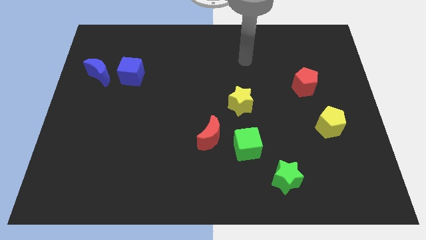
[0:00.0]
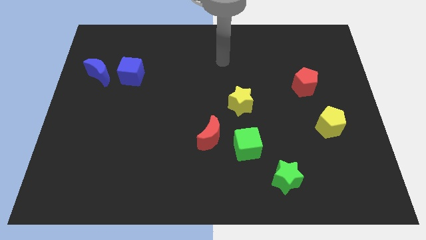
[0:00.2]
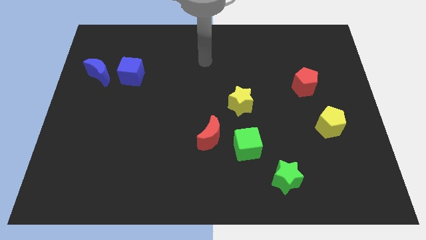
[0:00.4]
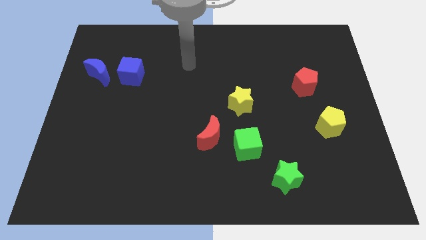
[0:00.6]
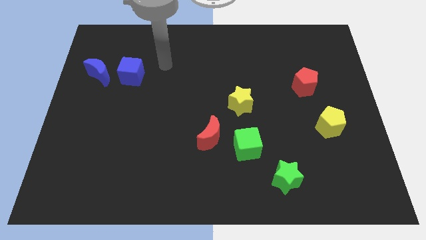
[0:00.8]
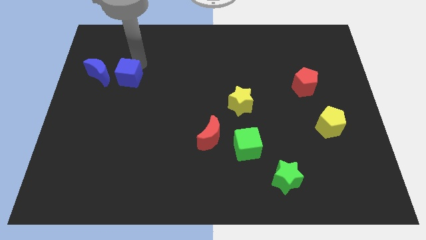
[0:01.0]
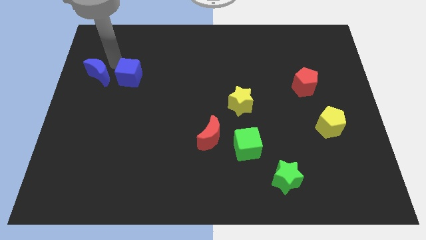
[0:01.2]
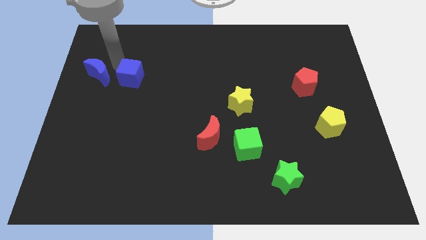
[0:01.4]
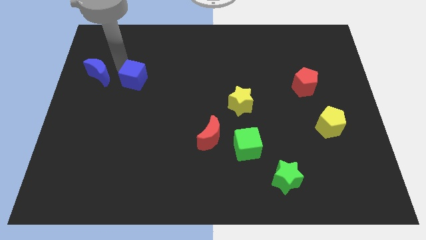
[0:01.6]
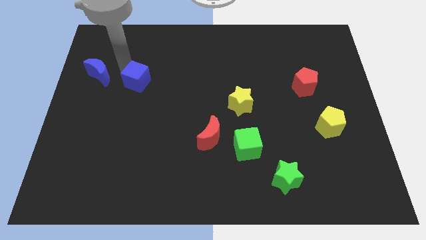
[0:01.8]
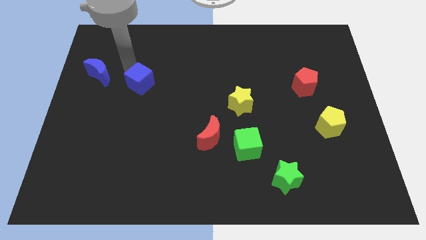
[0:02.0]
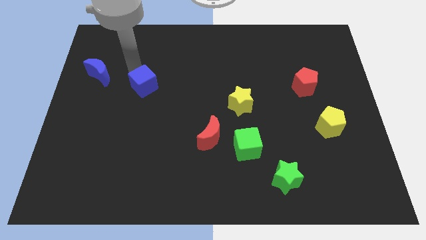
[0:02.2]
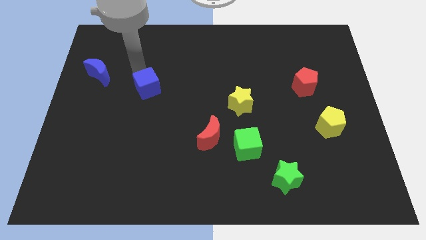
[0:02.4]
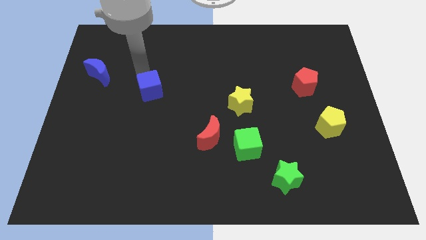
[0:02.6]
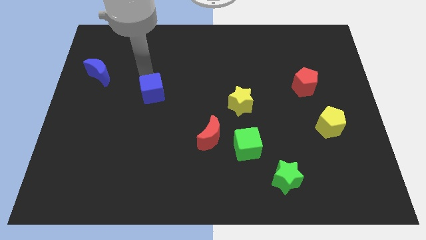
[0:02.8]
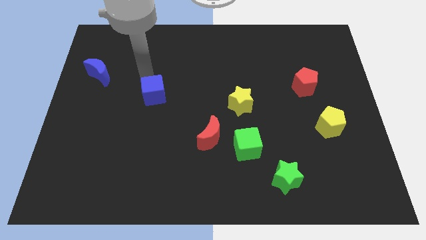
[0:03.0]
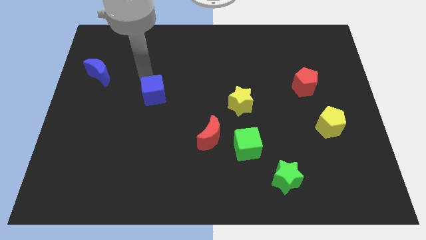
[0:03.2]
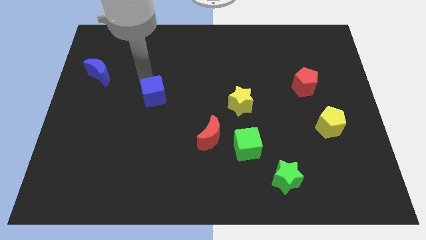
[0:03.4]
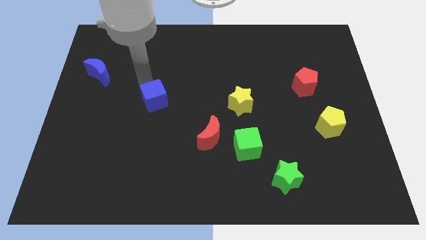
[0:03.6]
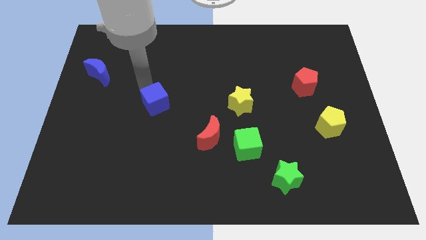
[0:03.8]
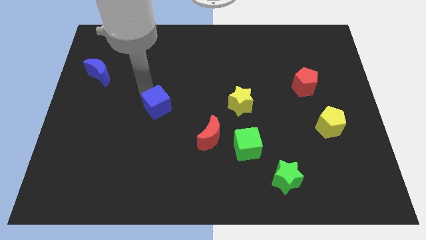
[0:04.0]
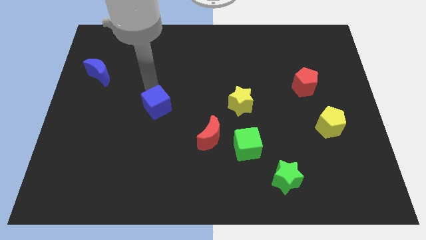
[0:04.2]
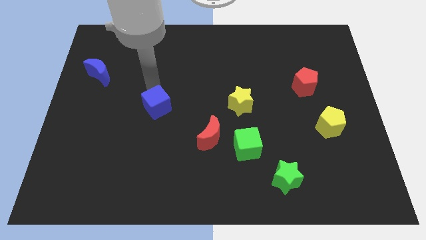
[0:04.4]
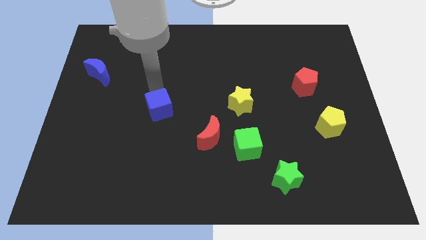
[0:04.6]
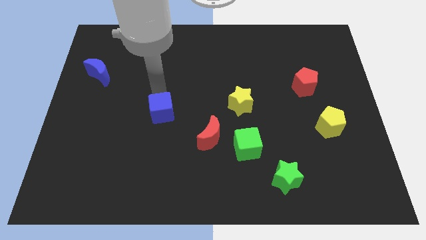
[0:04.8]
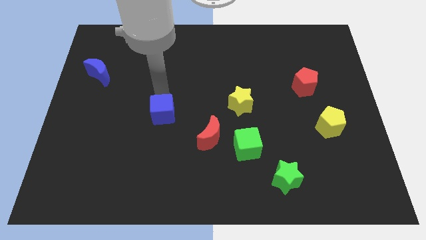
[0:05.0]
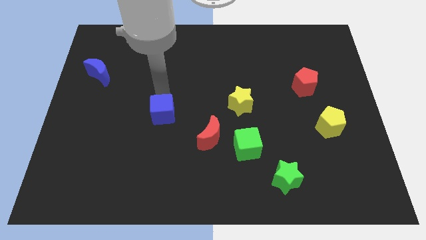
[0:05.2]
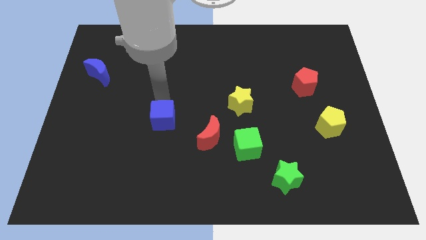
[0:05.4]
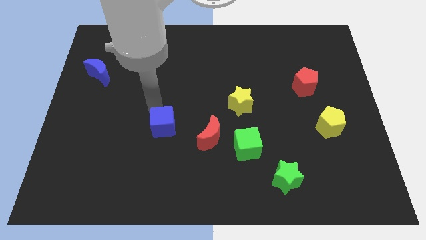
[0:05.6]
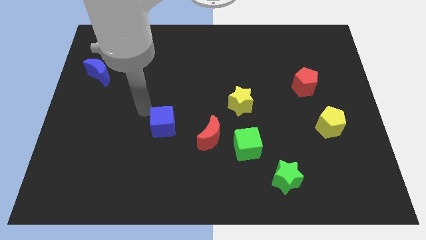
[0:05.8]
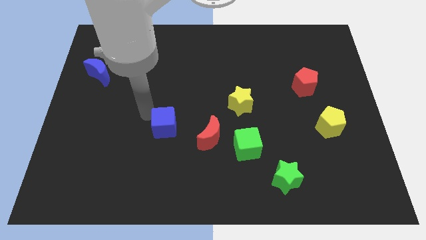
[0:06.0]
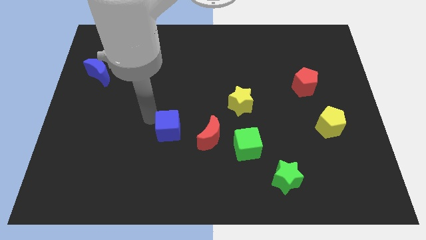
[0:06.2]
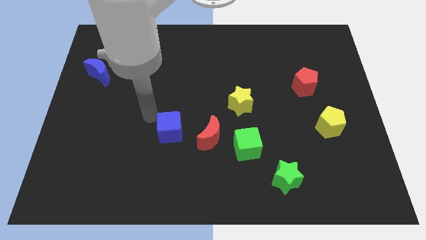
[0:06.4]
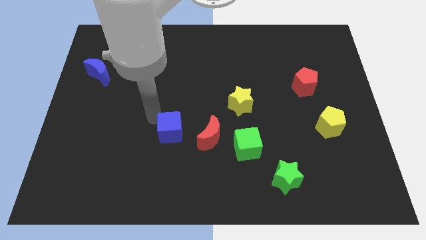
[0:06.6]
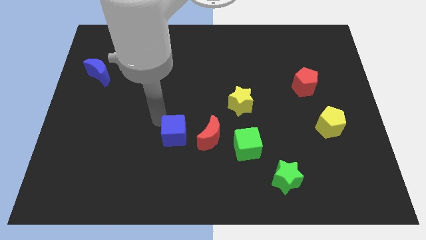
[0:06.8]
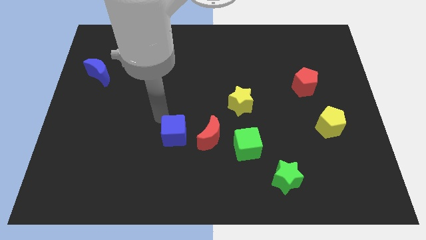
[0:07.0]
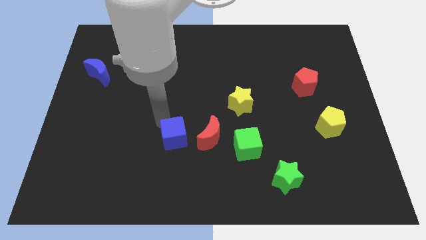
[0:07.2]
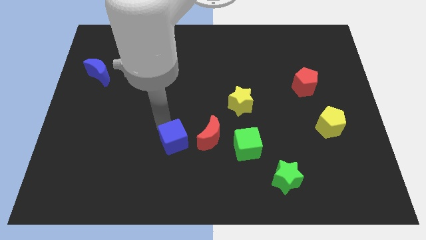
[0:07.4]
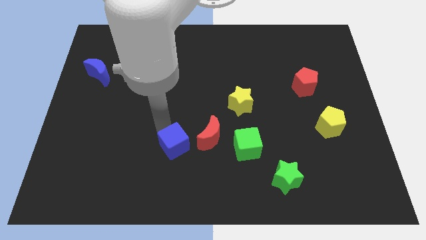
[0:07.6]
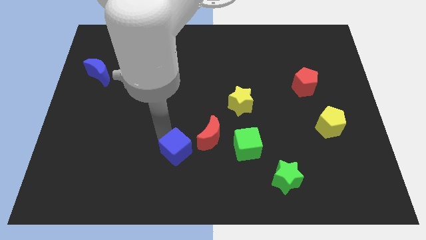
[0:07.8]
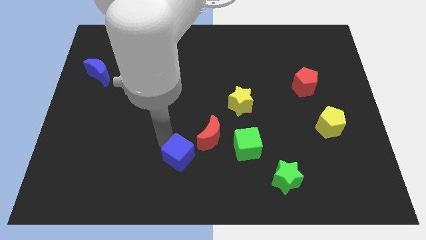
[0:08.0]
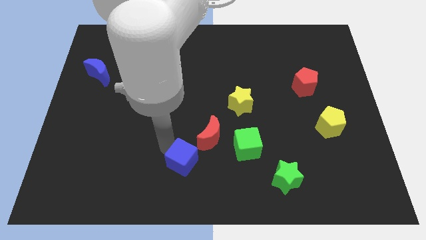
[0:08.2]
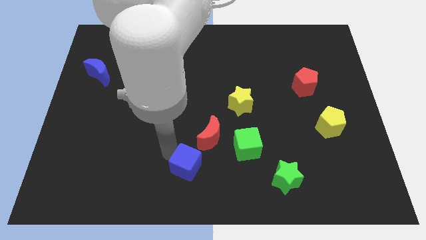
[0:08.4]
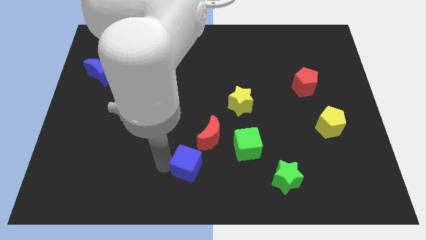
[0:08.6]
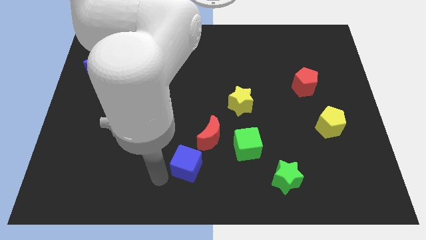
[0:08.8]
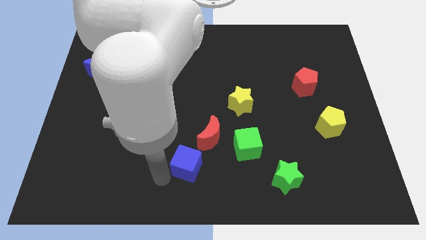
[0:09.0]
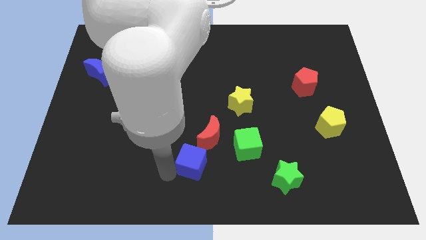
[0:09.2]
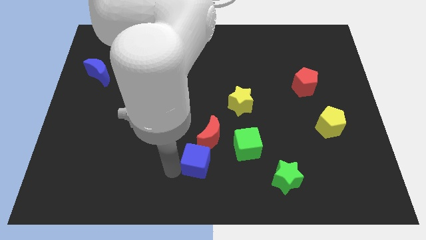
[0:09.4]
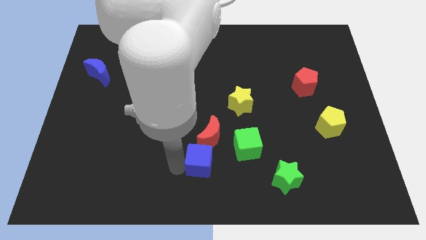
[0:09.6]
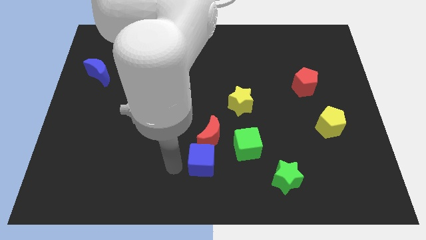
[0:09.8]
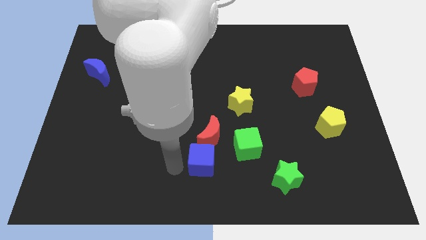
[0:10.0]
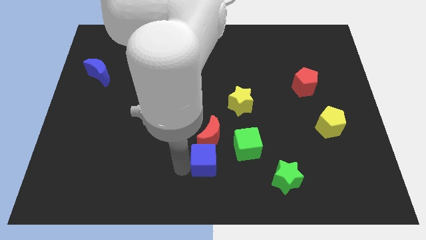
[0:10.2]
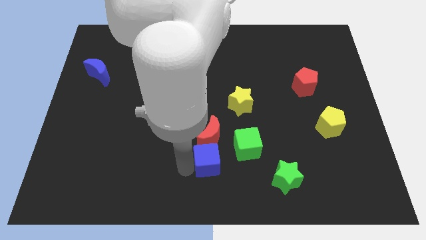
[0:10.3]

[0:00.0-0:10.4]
push the blue cube to the bottom right of the red moon

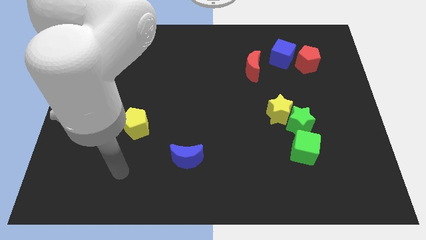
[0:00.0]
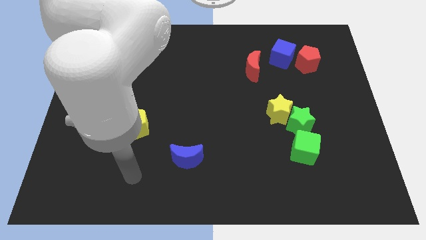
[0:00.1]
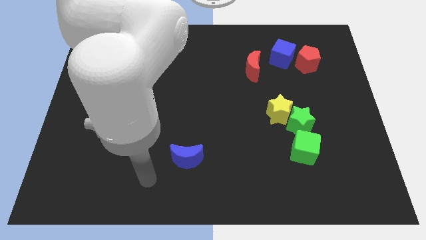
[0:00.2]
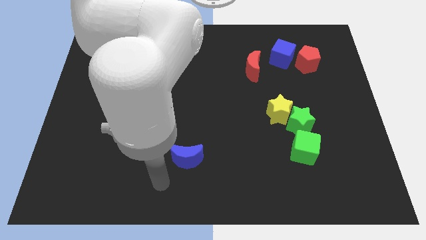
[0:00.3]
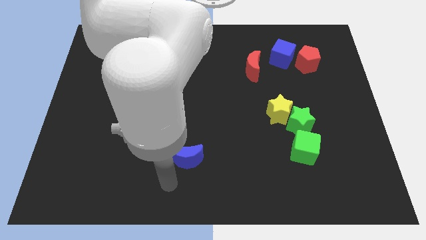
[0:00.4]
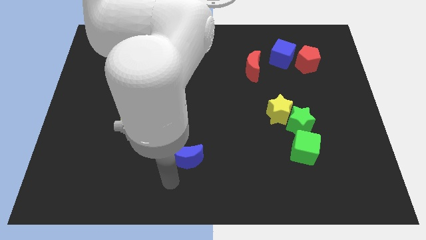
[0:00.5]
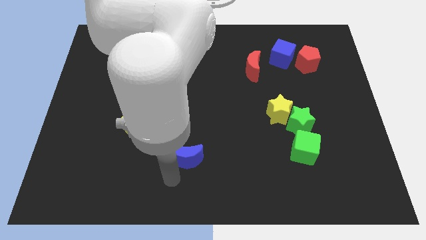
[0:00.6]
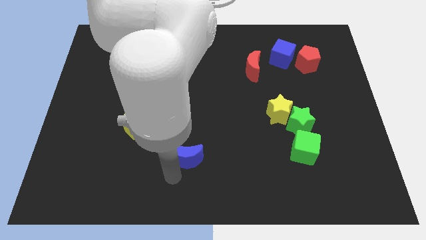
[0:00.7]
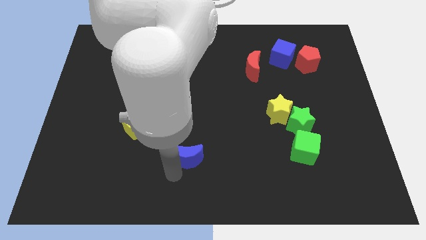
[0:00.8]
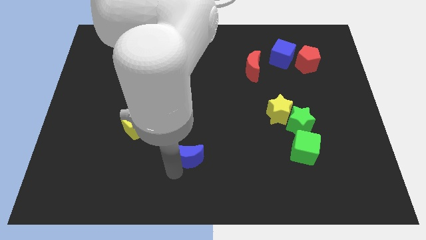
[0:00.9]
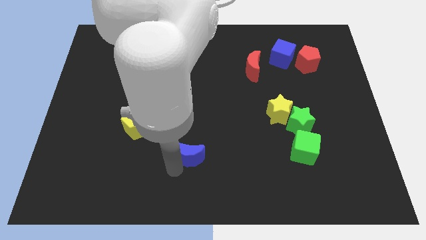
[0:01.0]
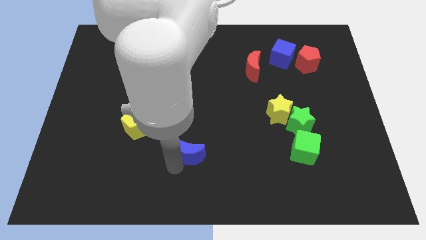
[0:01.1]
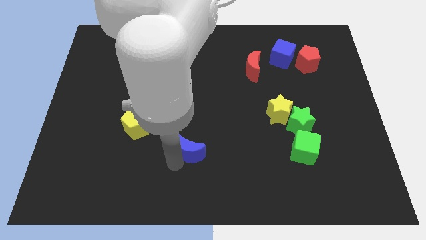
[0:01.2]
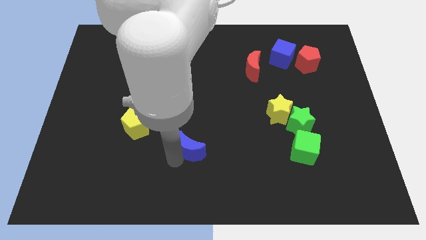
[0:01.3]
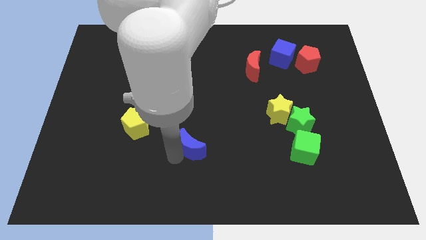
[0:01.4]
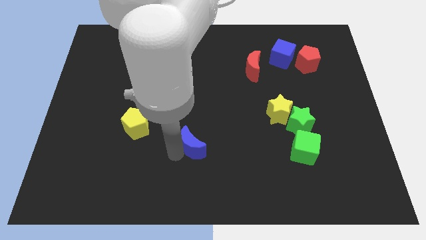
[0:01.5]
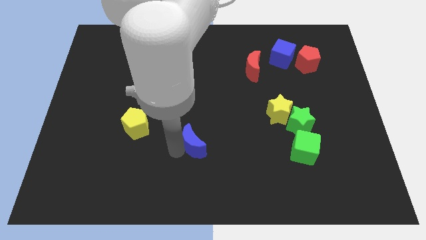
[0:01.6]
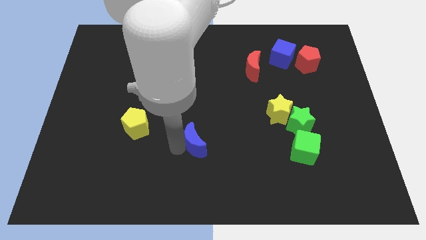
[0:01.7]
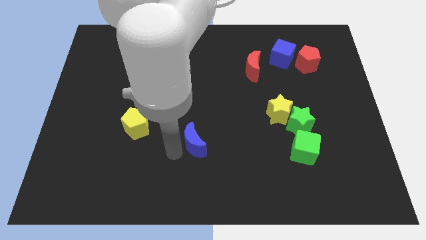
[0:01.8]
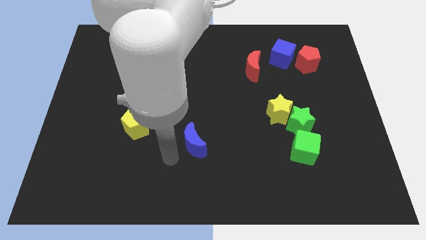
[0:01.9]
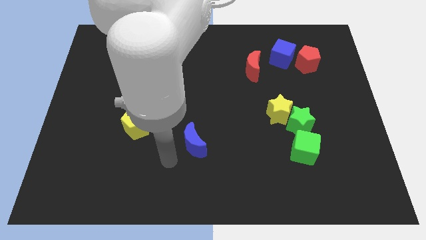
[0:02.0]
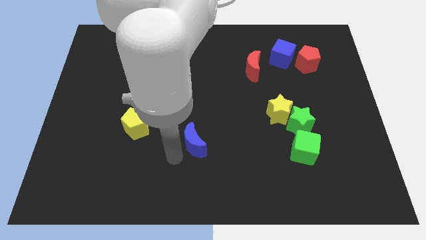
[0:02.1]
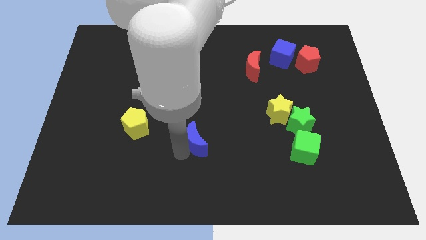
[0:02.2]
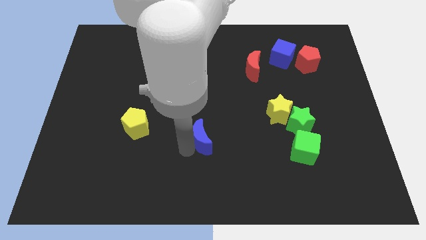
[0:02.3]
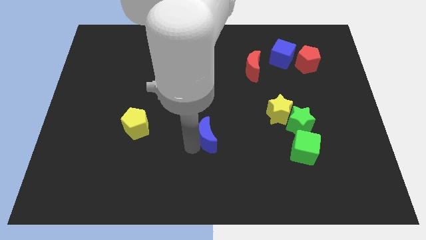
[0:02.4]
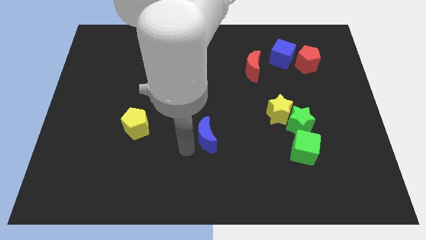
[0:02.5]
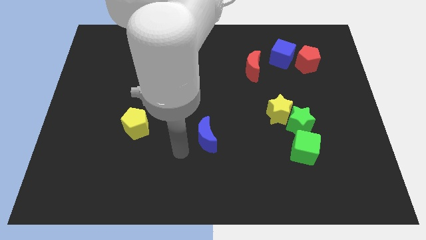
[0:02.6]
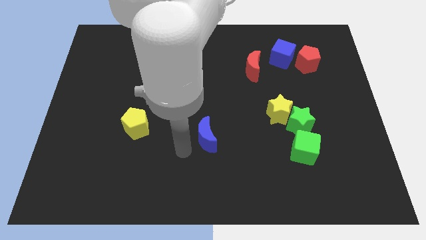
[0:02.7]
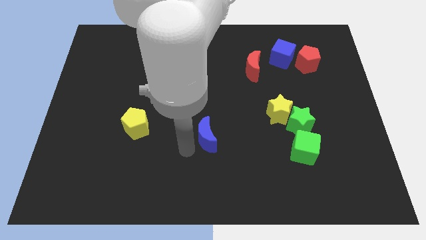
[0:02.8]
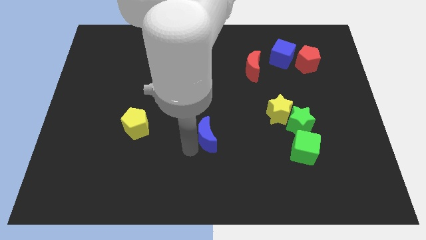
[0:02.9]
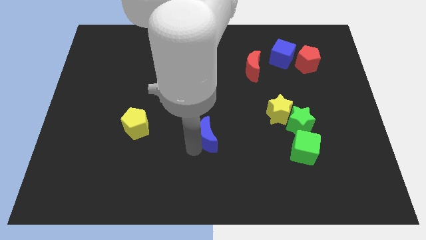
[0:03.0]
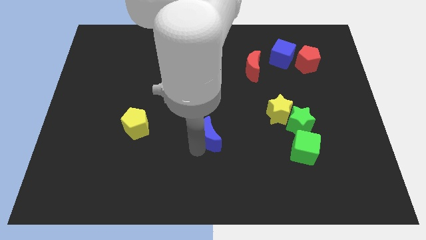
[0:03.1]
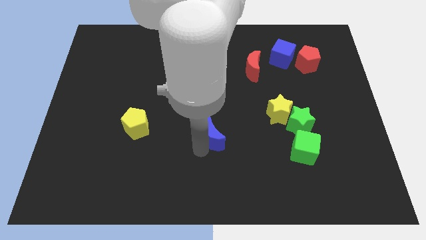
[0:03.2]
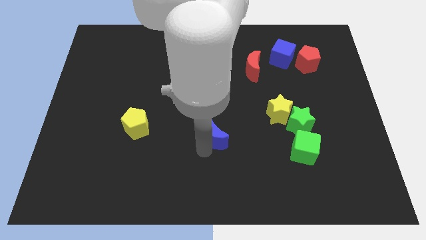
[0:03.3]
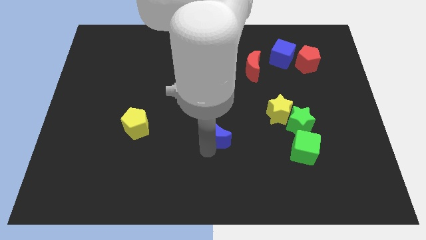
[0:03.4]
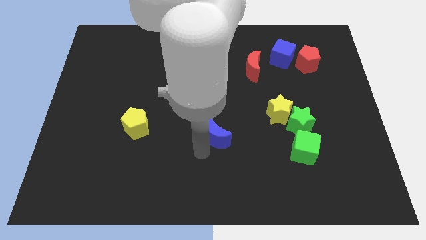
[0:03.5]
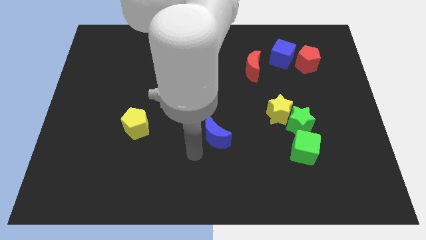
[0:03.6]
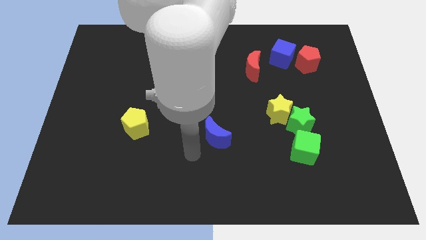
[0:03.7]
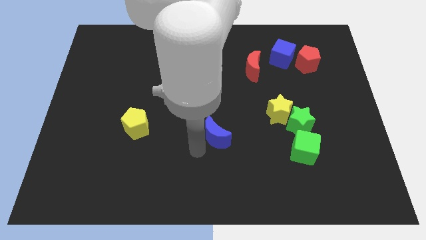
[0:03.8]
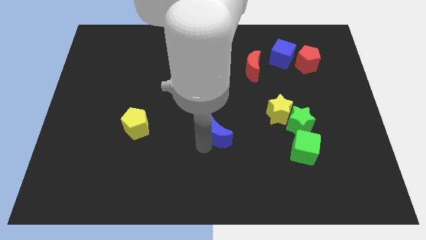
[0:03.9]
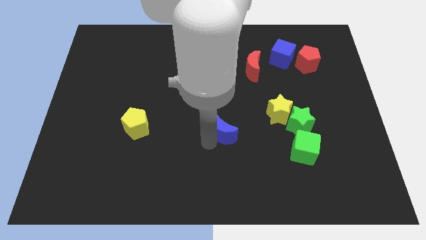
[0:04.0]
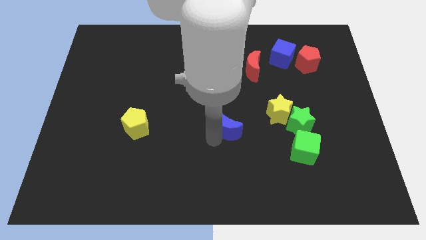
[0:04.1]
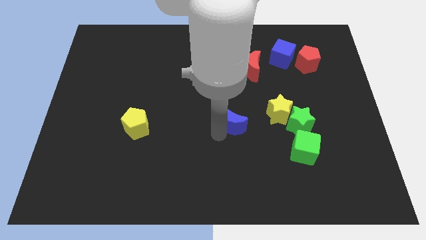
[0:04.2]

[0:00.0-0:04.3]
push the blue moon left of the green star
